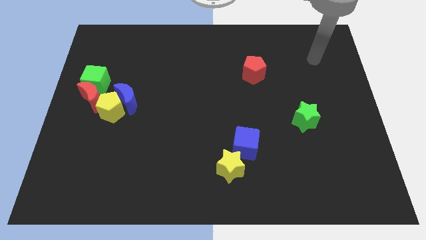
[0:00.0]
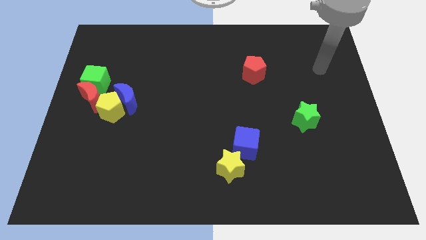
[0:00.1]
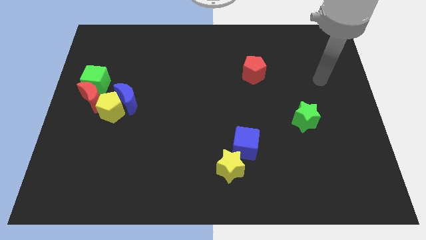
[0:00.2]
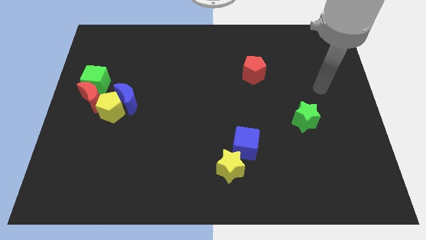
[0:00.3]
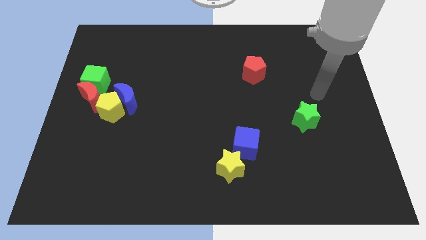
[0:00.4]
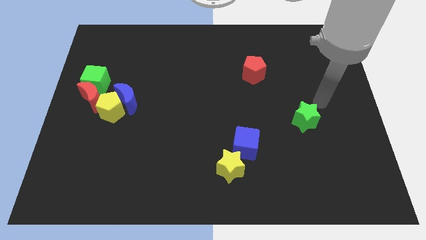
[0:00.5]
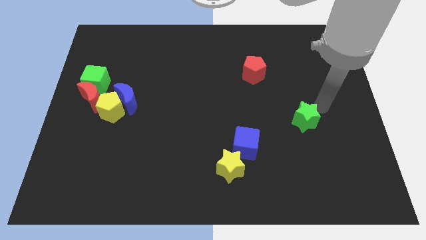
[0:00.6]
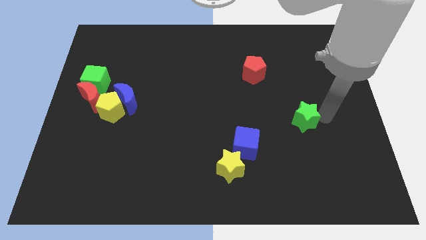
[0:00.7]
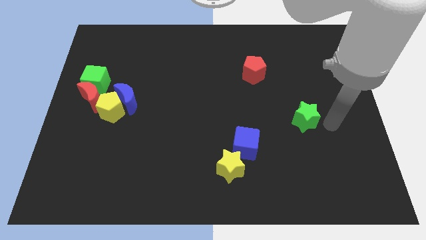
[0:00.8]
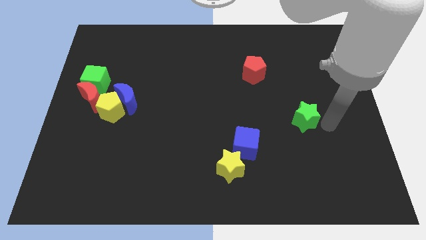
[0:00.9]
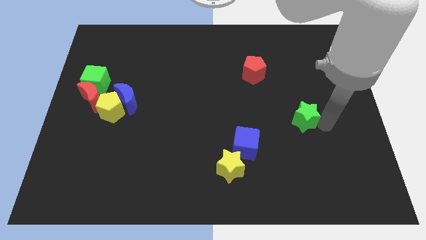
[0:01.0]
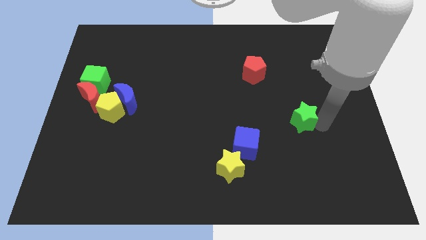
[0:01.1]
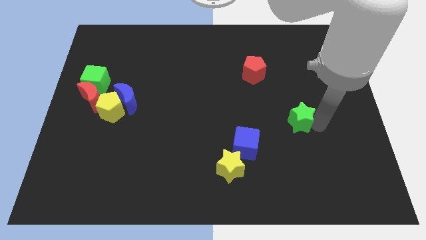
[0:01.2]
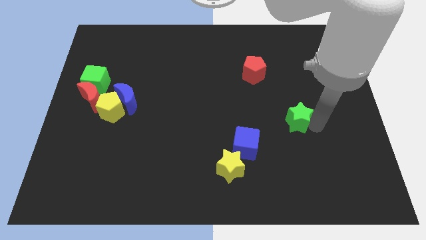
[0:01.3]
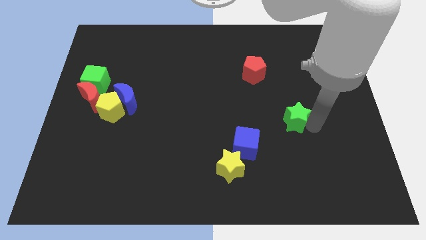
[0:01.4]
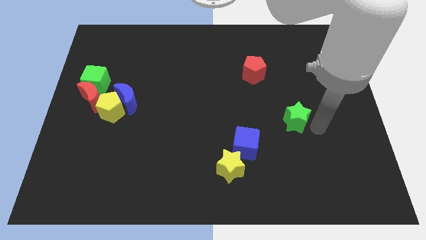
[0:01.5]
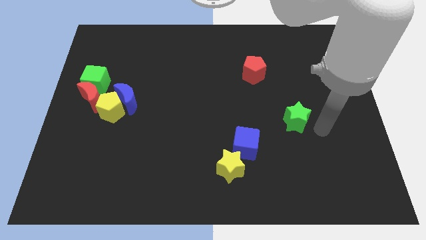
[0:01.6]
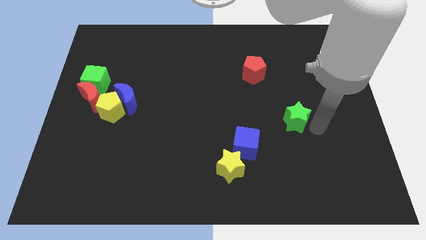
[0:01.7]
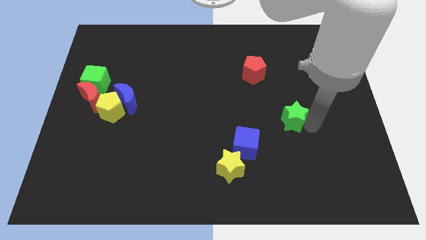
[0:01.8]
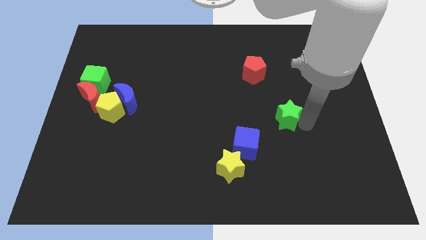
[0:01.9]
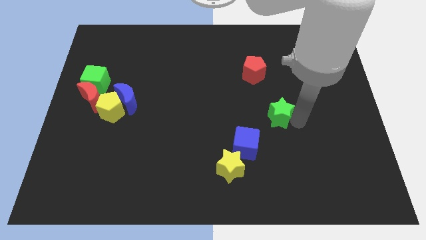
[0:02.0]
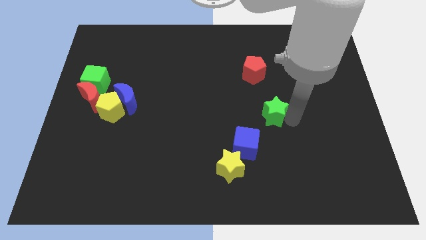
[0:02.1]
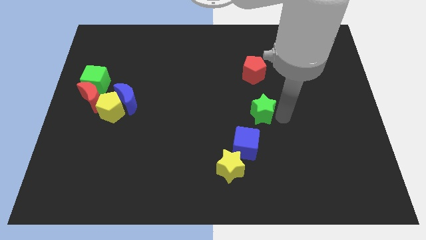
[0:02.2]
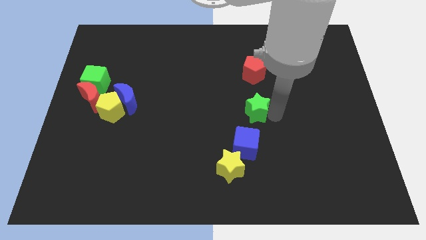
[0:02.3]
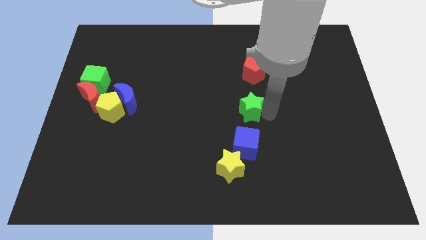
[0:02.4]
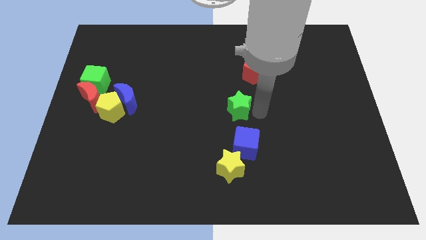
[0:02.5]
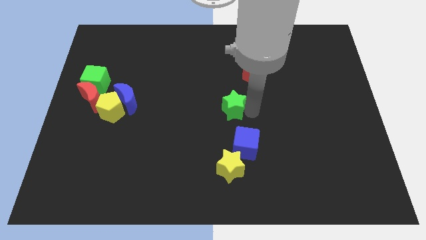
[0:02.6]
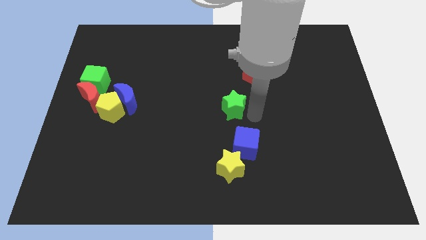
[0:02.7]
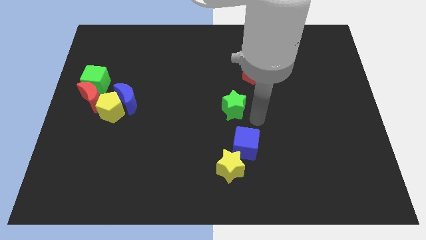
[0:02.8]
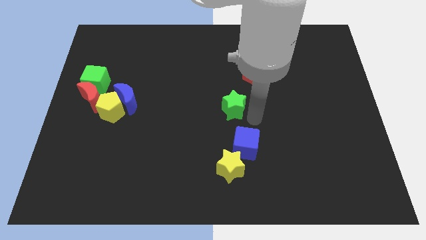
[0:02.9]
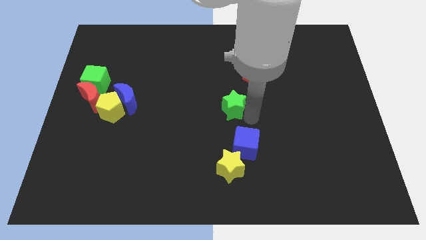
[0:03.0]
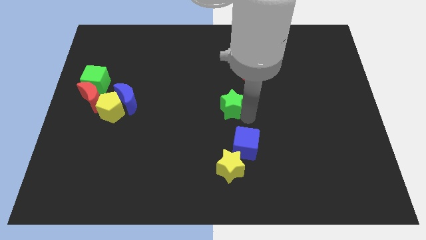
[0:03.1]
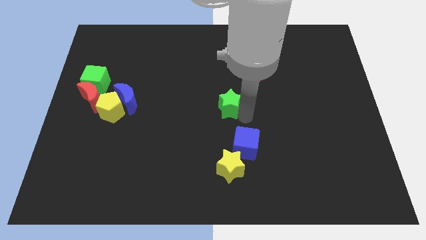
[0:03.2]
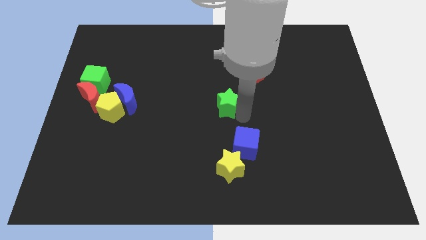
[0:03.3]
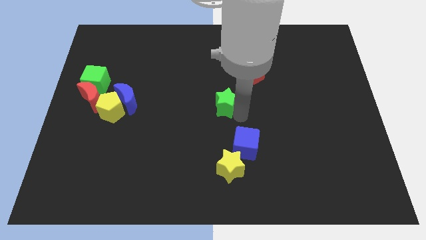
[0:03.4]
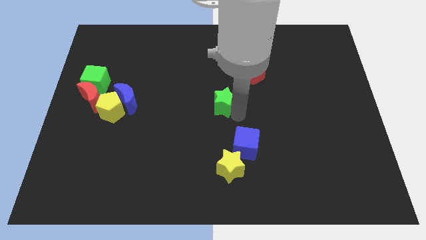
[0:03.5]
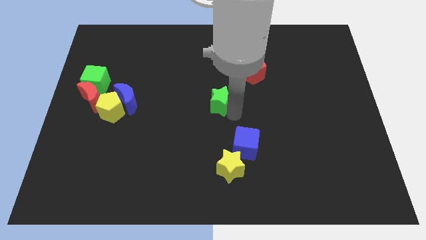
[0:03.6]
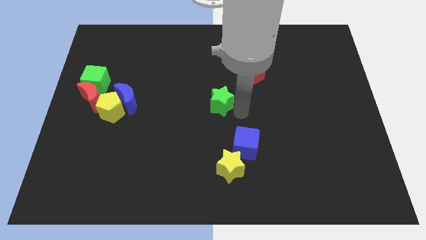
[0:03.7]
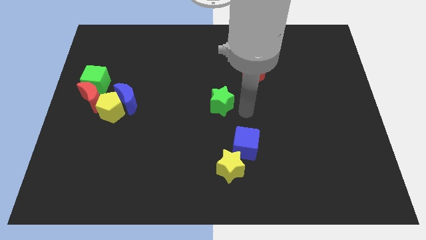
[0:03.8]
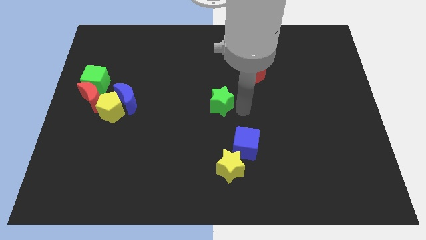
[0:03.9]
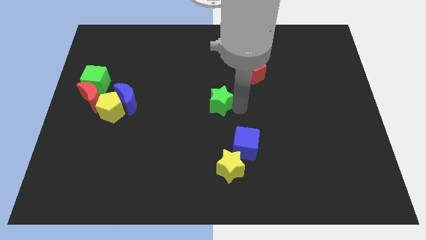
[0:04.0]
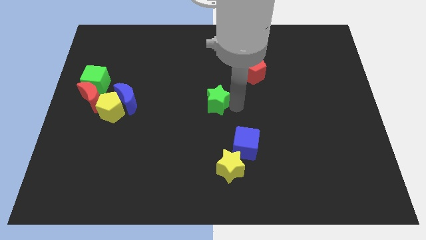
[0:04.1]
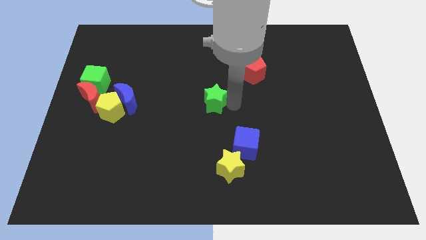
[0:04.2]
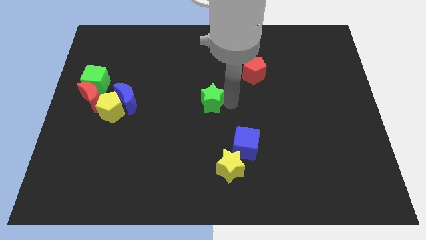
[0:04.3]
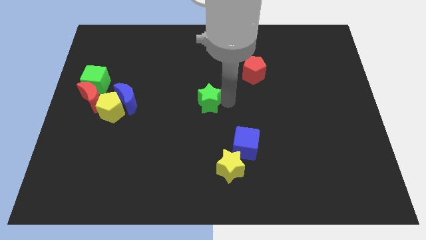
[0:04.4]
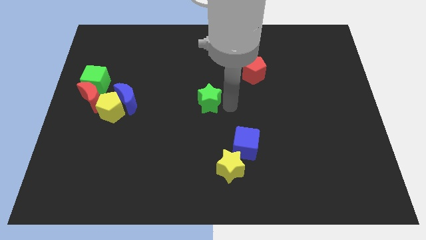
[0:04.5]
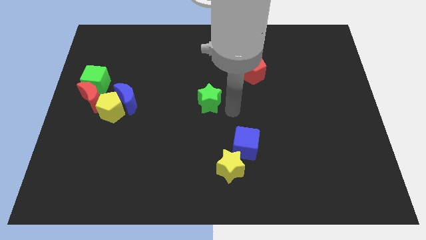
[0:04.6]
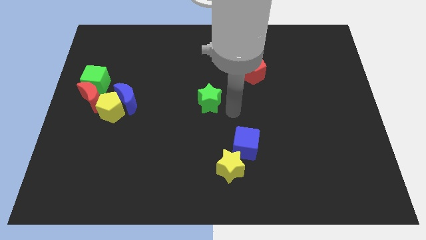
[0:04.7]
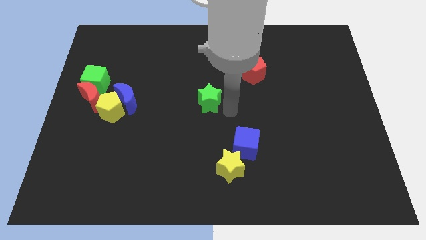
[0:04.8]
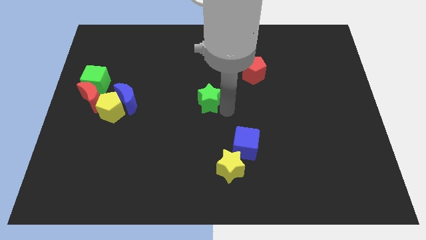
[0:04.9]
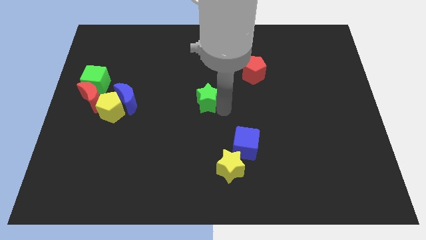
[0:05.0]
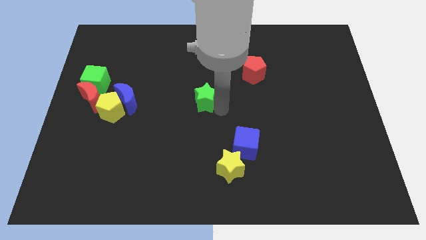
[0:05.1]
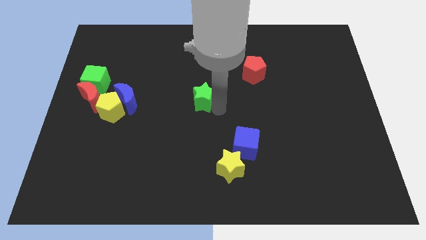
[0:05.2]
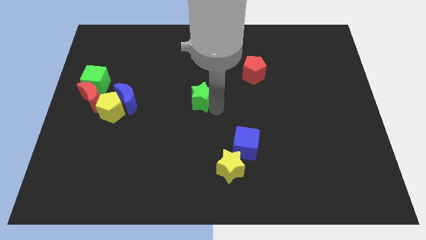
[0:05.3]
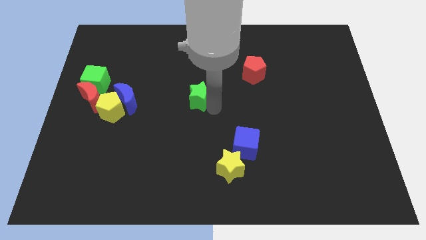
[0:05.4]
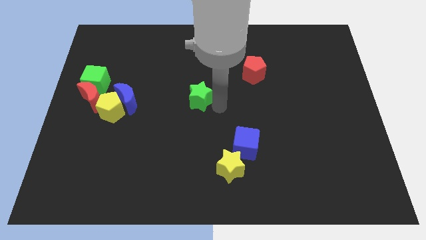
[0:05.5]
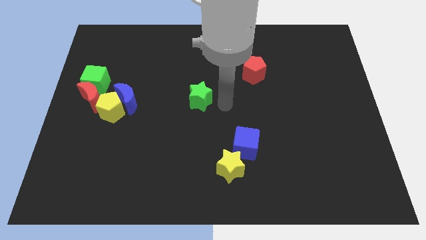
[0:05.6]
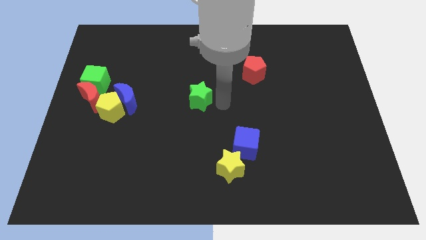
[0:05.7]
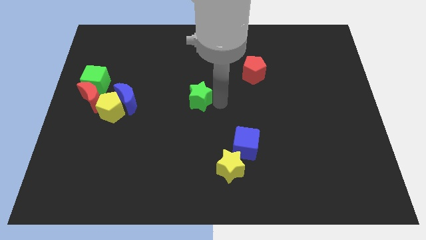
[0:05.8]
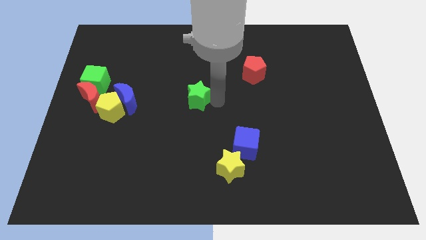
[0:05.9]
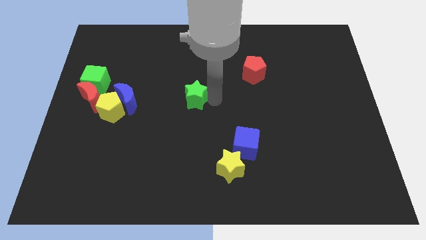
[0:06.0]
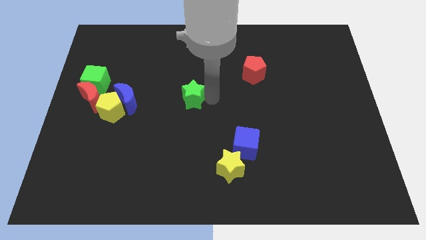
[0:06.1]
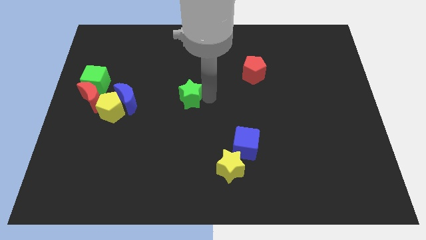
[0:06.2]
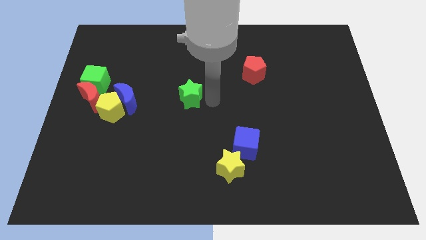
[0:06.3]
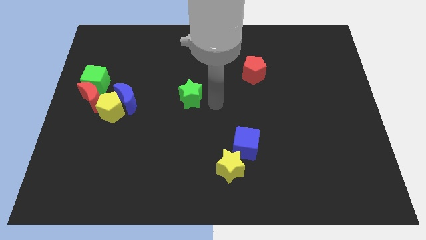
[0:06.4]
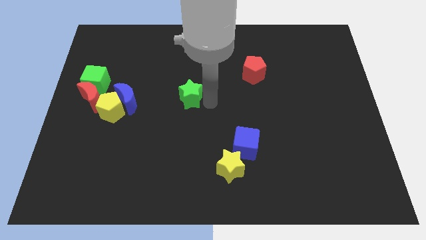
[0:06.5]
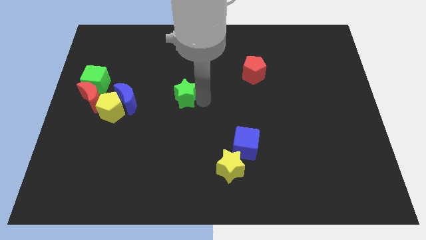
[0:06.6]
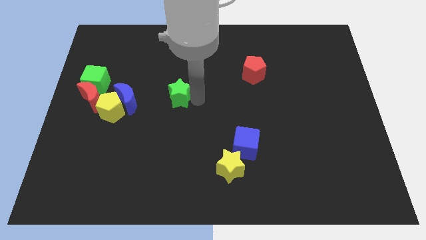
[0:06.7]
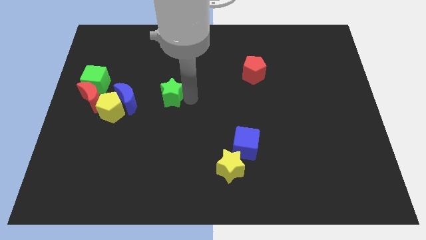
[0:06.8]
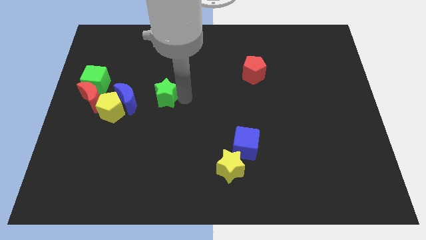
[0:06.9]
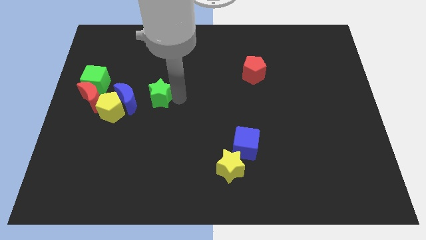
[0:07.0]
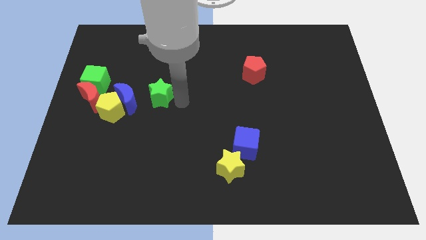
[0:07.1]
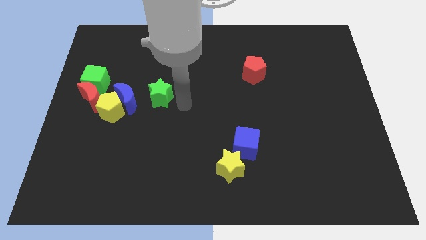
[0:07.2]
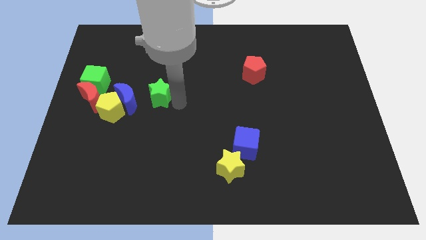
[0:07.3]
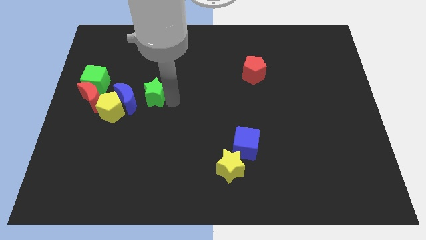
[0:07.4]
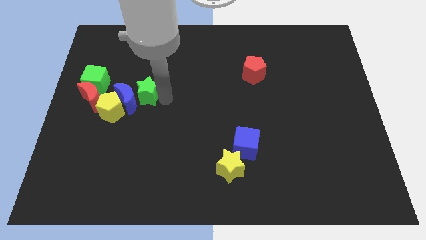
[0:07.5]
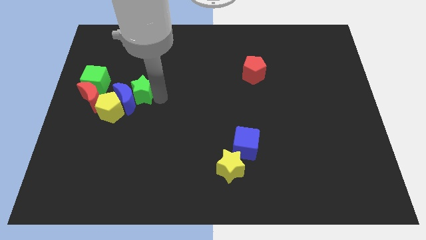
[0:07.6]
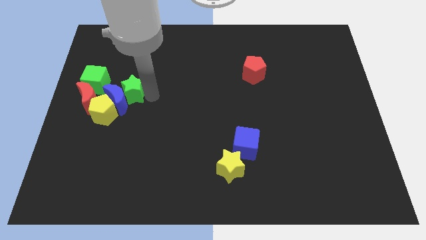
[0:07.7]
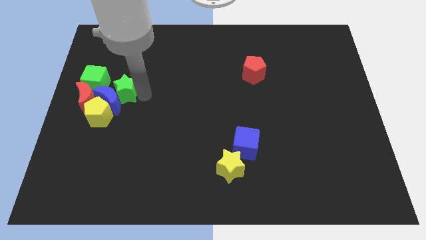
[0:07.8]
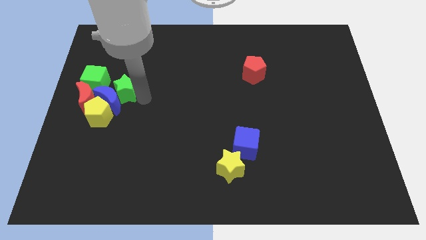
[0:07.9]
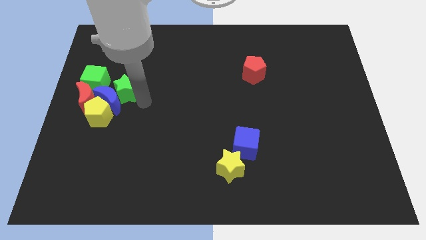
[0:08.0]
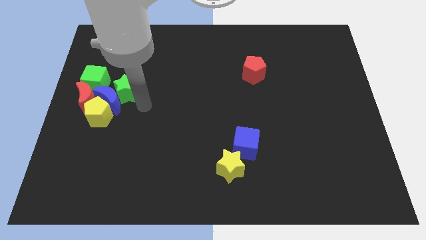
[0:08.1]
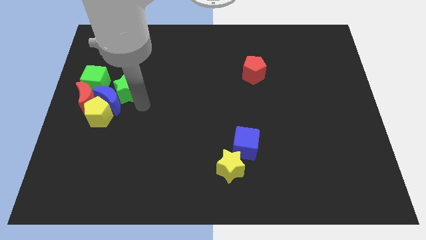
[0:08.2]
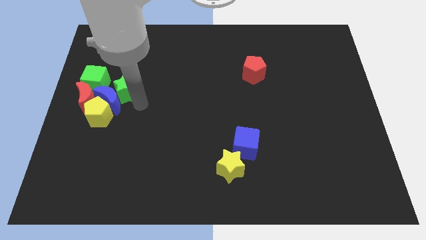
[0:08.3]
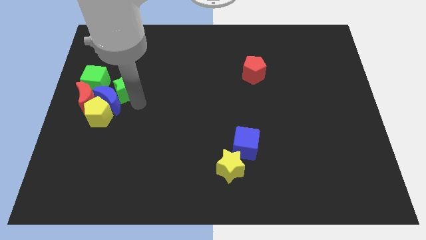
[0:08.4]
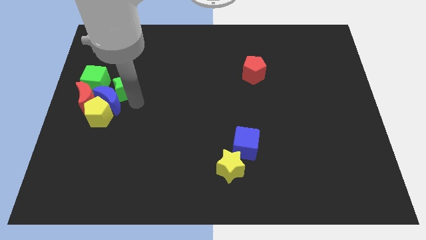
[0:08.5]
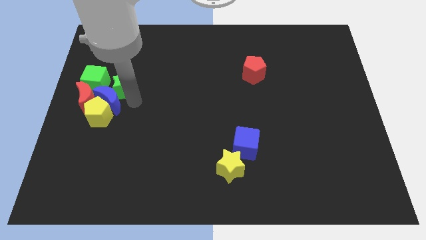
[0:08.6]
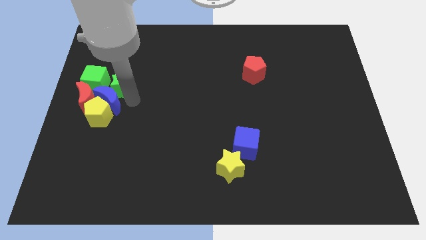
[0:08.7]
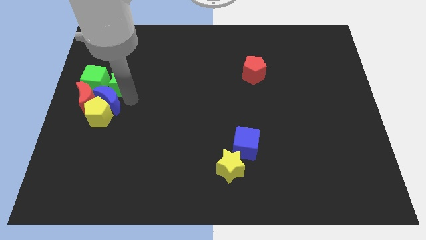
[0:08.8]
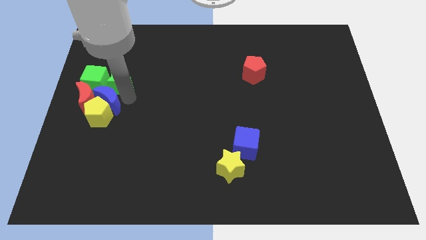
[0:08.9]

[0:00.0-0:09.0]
put the green star to the green cube
